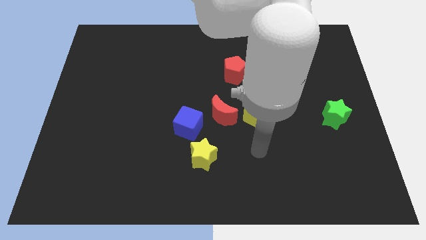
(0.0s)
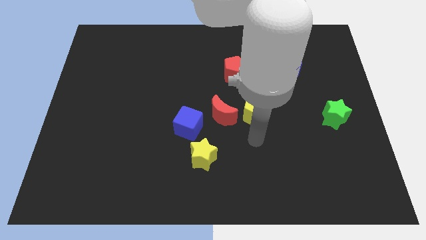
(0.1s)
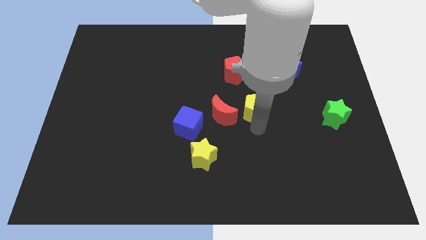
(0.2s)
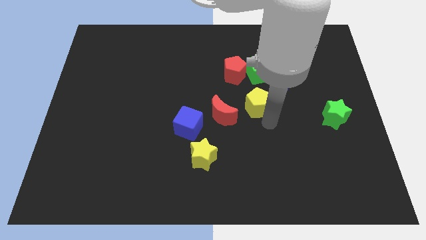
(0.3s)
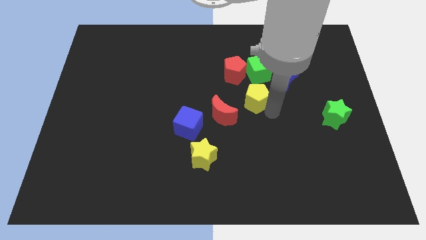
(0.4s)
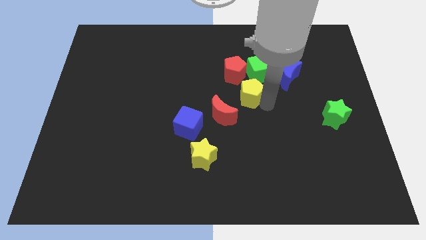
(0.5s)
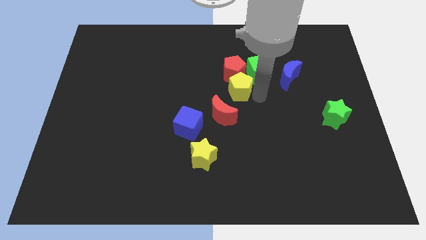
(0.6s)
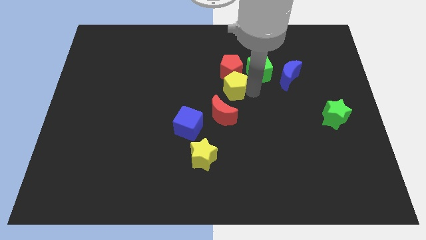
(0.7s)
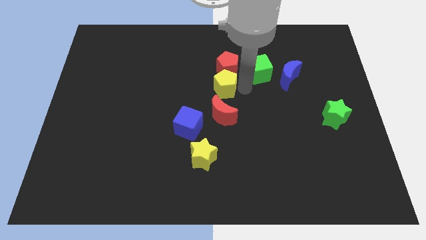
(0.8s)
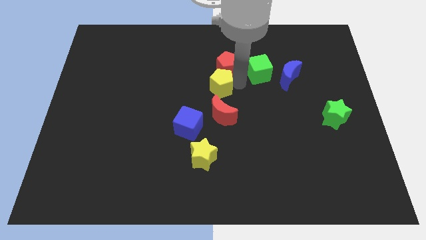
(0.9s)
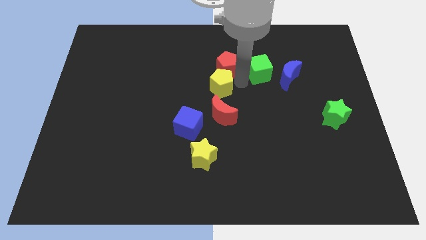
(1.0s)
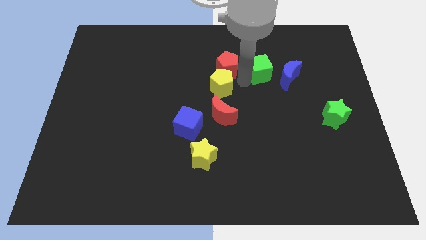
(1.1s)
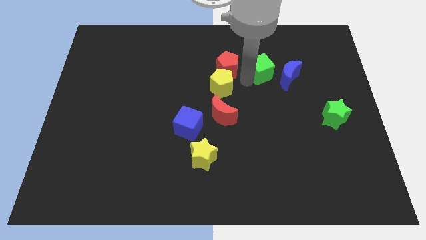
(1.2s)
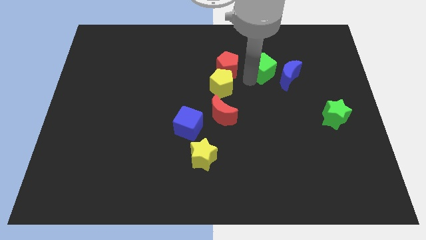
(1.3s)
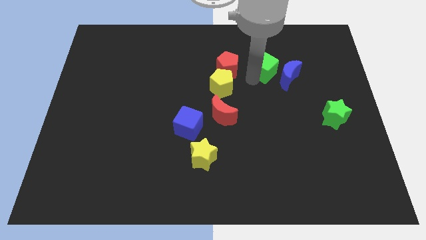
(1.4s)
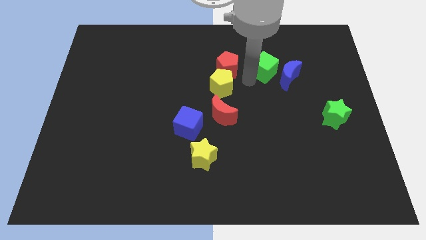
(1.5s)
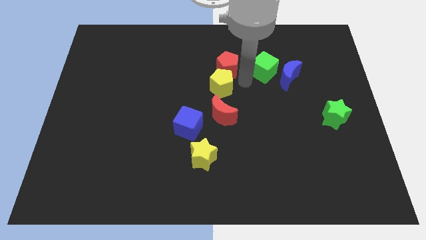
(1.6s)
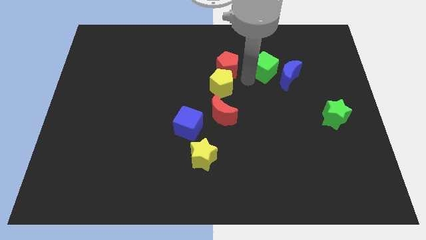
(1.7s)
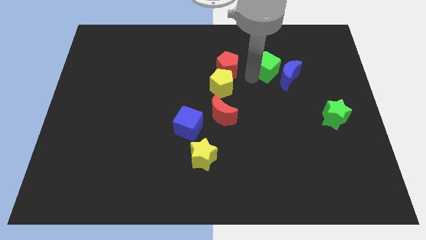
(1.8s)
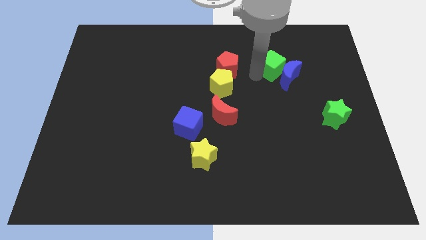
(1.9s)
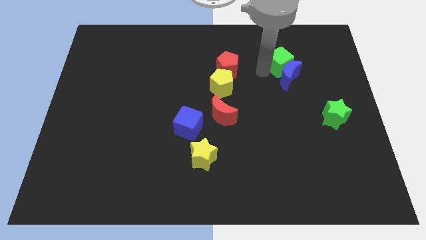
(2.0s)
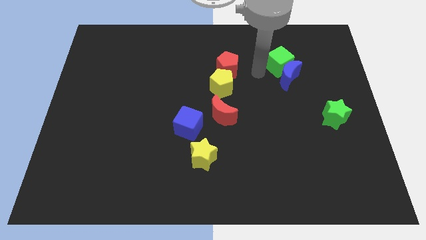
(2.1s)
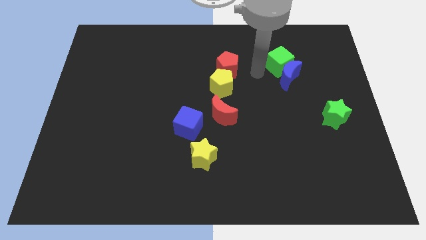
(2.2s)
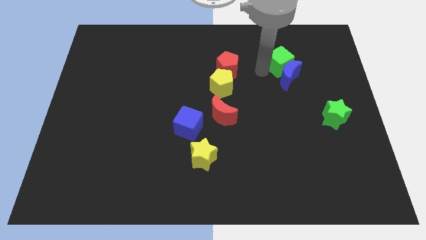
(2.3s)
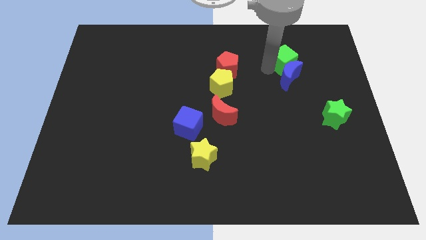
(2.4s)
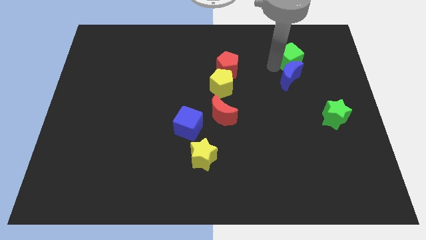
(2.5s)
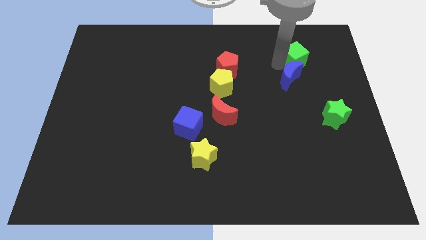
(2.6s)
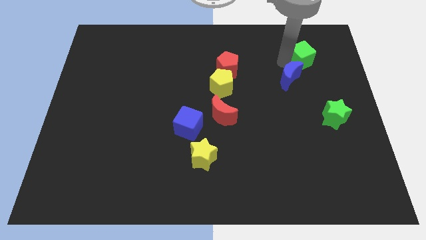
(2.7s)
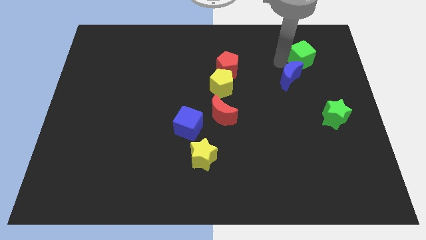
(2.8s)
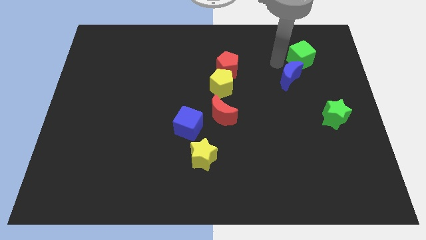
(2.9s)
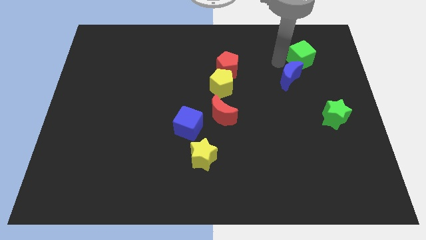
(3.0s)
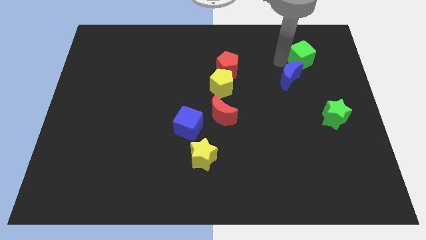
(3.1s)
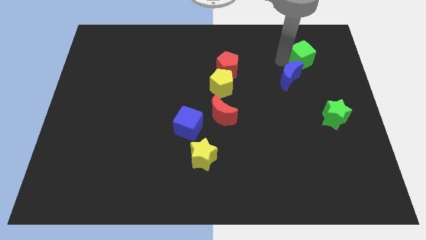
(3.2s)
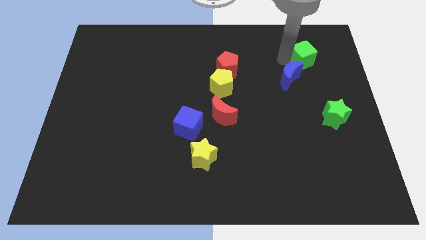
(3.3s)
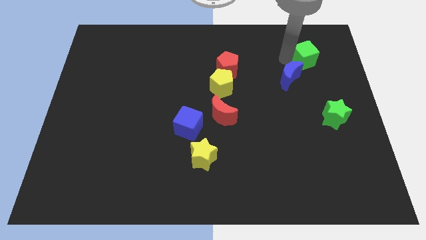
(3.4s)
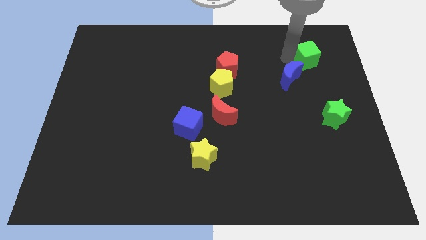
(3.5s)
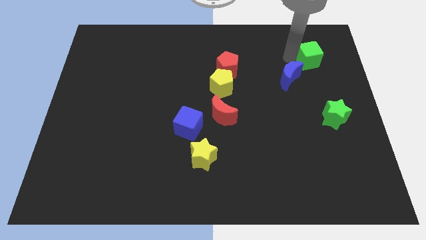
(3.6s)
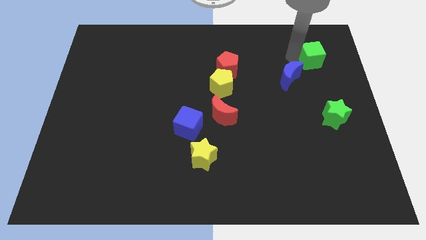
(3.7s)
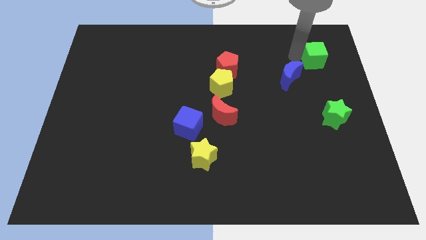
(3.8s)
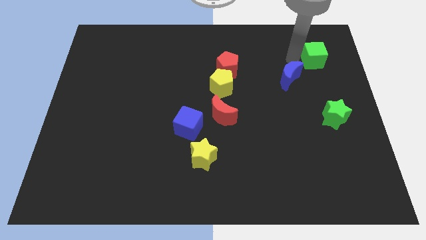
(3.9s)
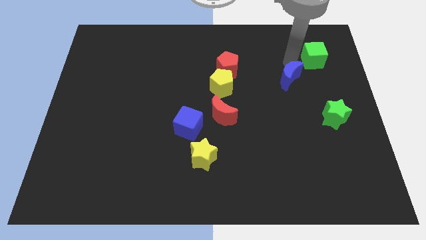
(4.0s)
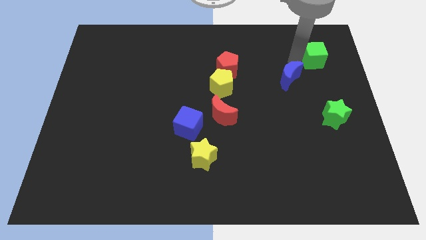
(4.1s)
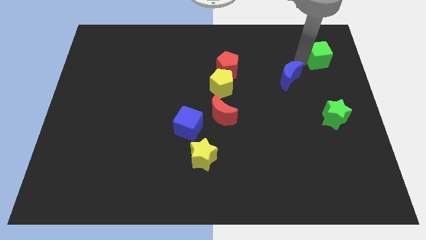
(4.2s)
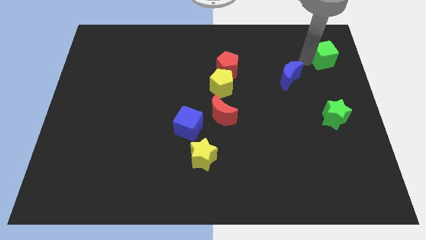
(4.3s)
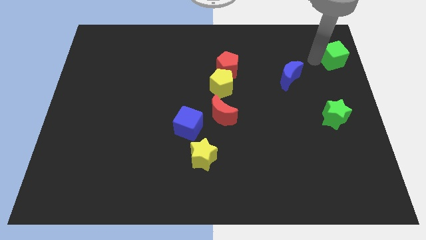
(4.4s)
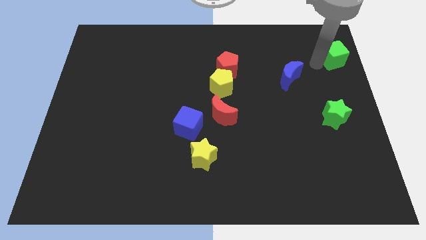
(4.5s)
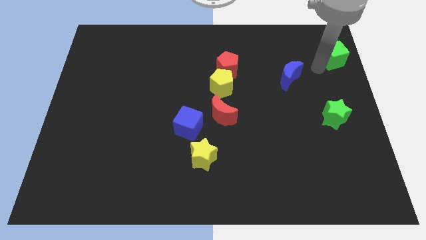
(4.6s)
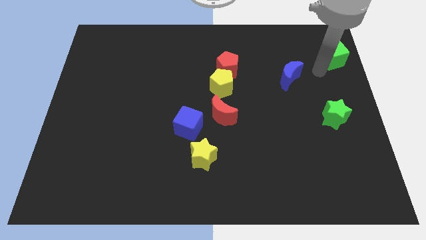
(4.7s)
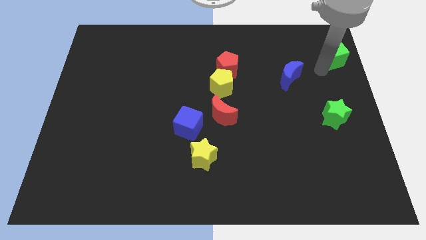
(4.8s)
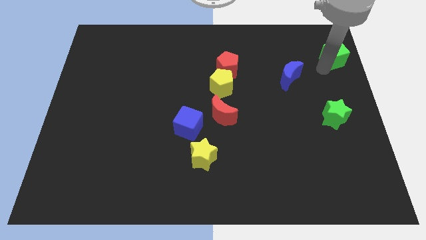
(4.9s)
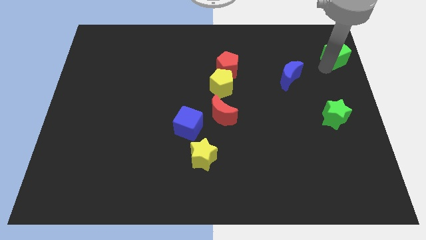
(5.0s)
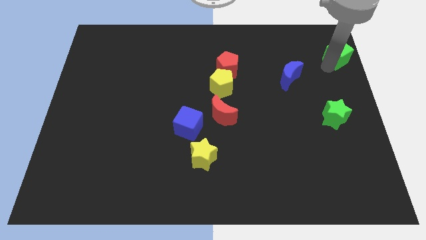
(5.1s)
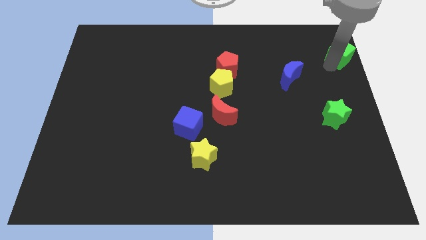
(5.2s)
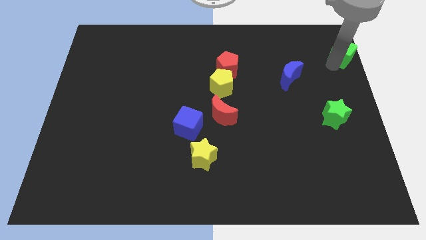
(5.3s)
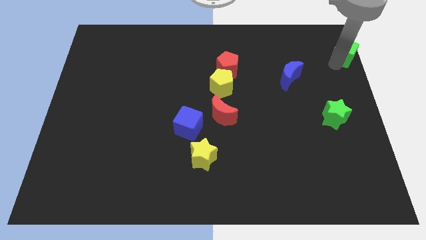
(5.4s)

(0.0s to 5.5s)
put the green cube to the top right of the board

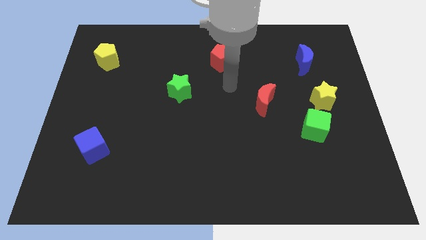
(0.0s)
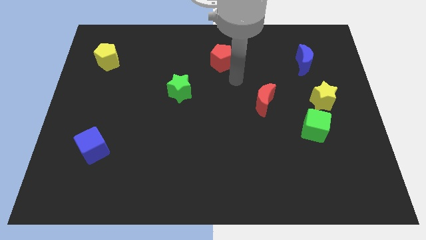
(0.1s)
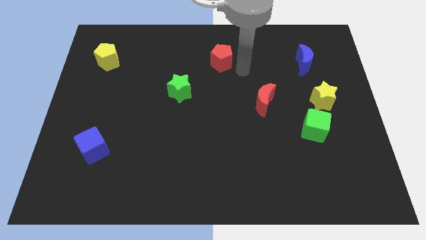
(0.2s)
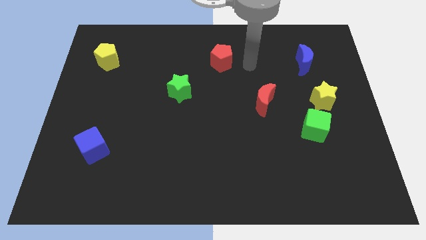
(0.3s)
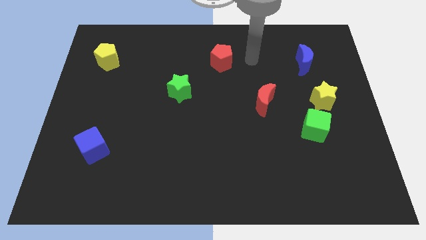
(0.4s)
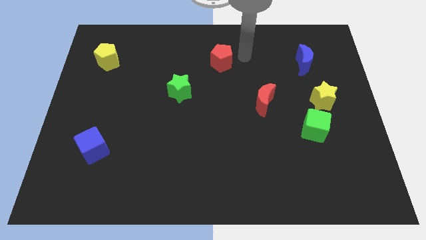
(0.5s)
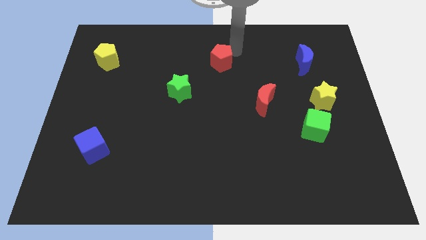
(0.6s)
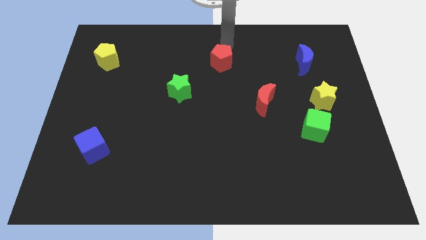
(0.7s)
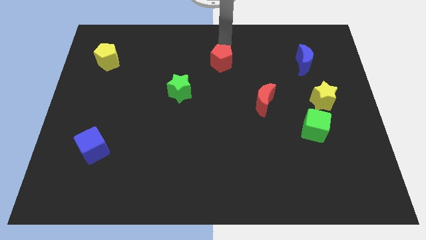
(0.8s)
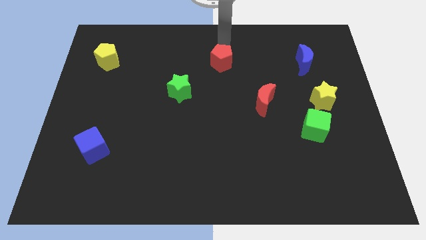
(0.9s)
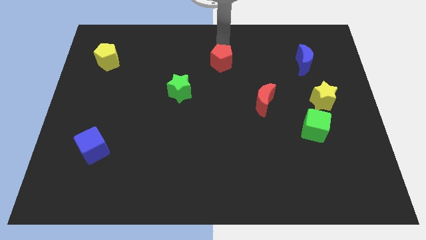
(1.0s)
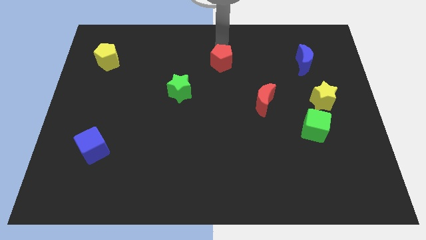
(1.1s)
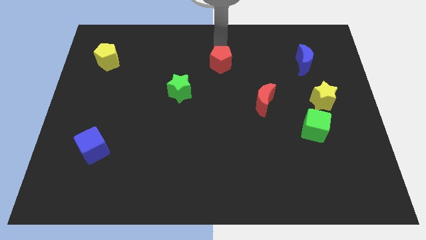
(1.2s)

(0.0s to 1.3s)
move the red pentagon to the middle of the board
